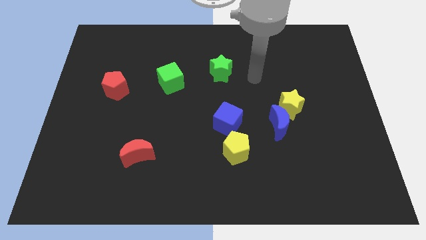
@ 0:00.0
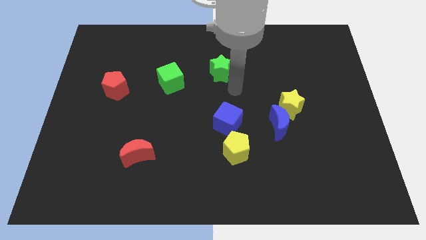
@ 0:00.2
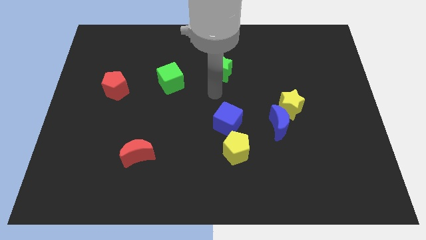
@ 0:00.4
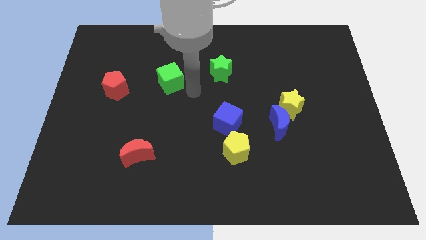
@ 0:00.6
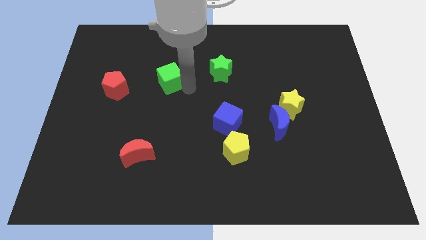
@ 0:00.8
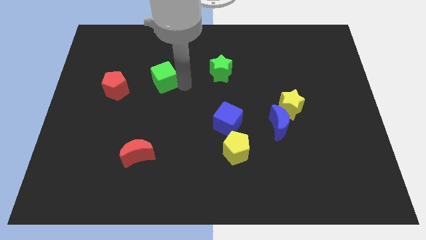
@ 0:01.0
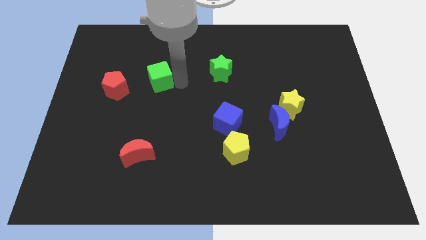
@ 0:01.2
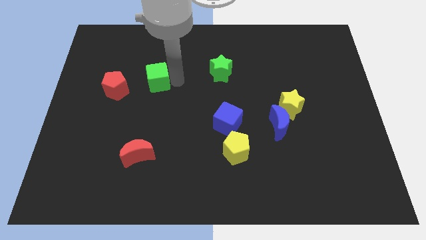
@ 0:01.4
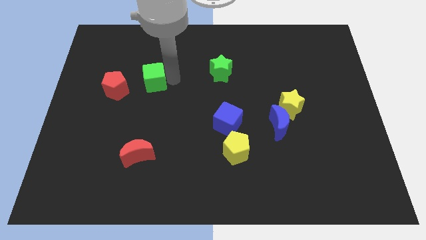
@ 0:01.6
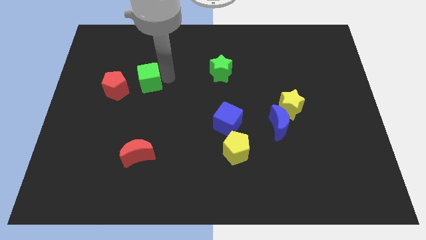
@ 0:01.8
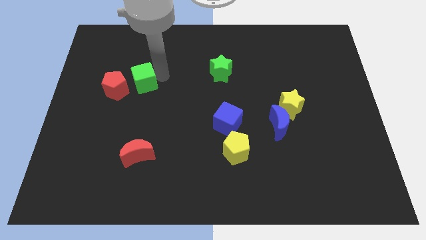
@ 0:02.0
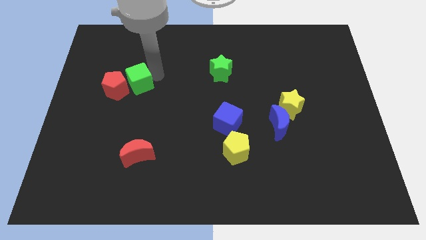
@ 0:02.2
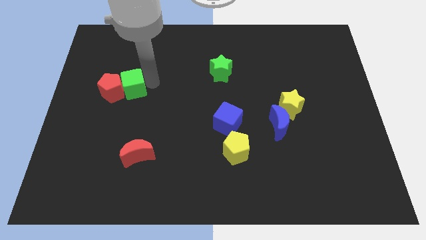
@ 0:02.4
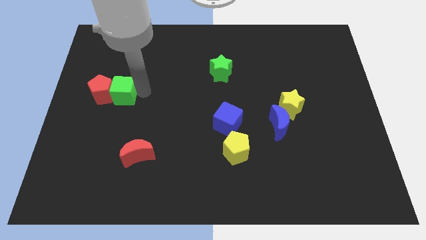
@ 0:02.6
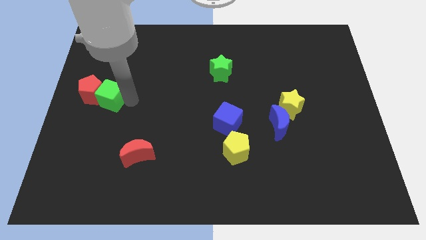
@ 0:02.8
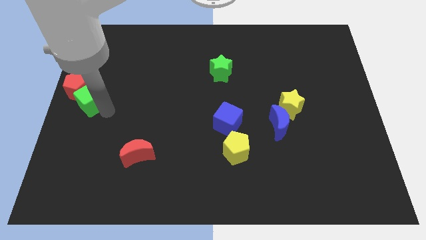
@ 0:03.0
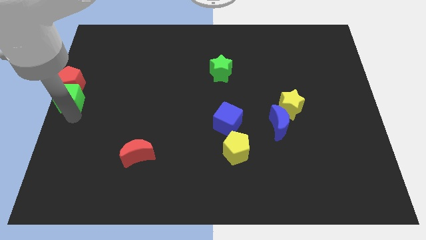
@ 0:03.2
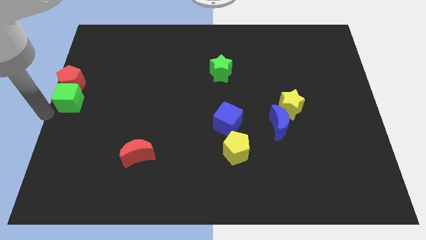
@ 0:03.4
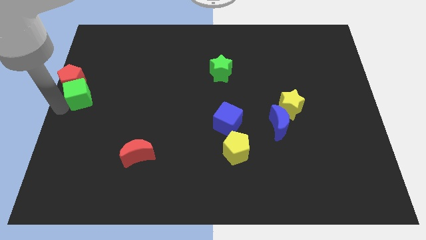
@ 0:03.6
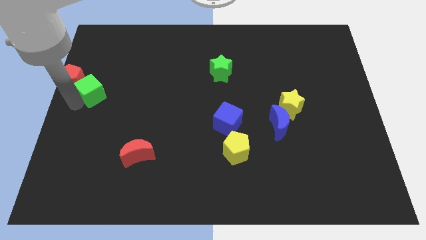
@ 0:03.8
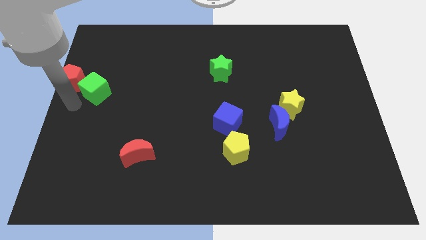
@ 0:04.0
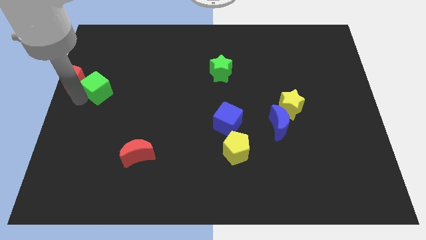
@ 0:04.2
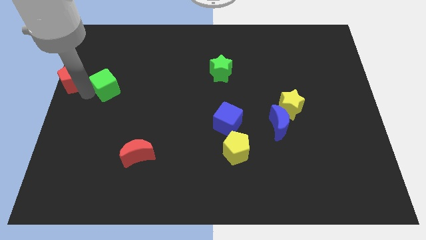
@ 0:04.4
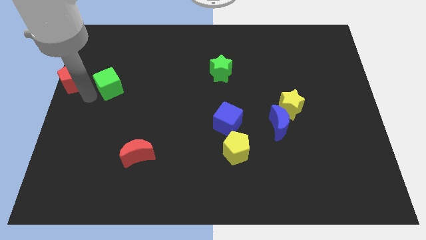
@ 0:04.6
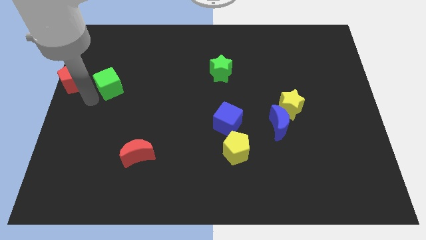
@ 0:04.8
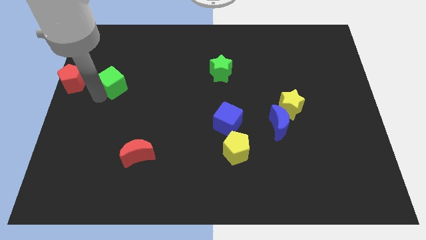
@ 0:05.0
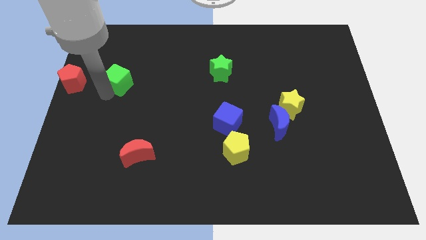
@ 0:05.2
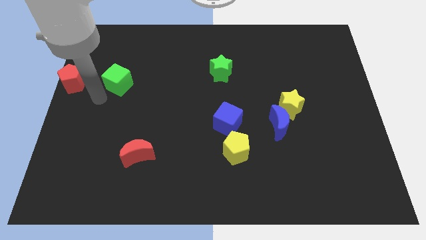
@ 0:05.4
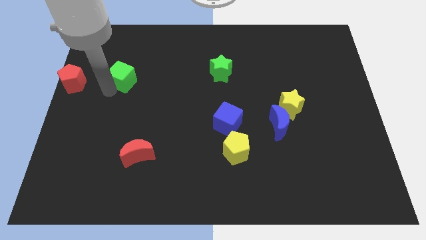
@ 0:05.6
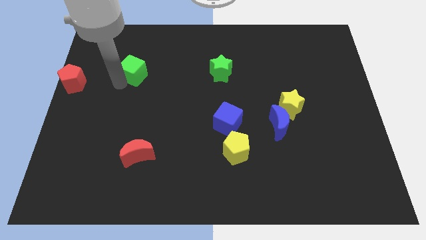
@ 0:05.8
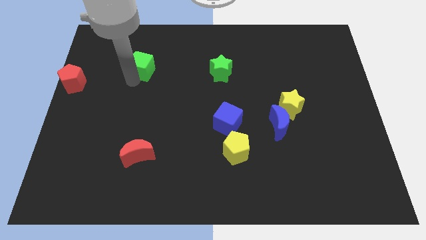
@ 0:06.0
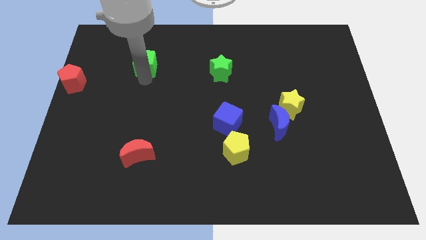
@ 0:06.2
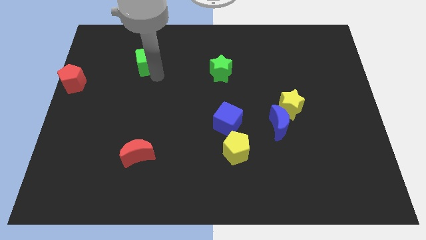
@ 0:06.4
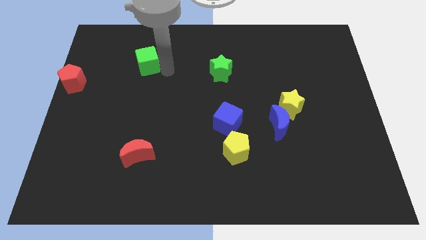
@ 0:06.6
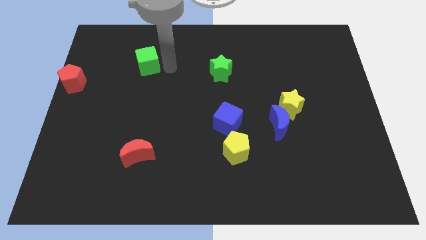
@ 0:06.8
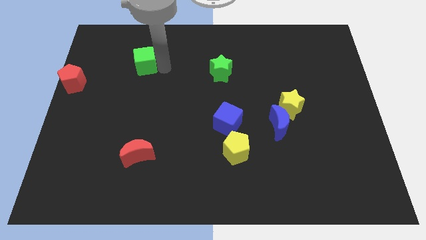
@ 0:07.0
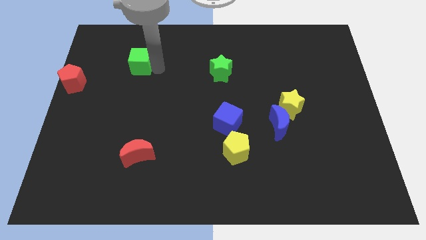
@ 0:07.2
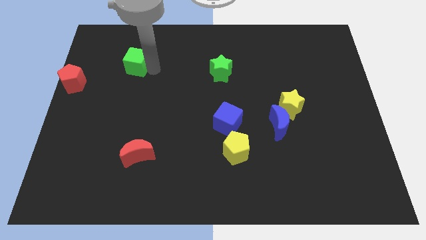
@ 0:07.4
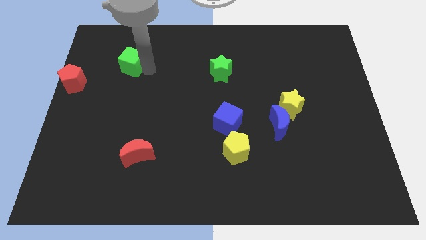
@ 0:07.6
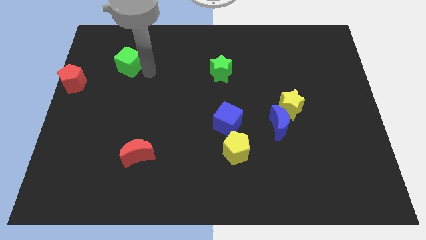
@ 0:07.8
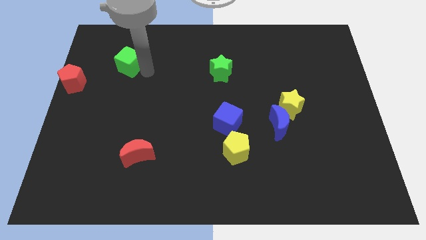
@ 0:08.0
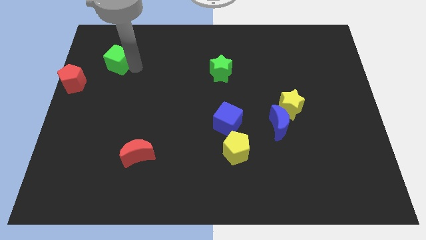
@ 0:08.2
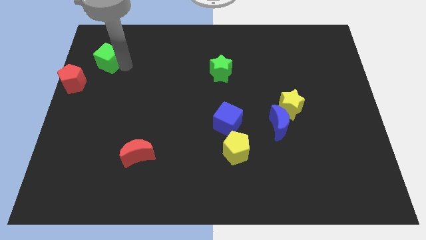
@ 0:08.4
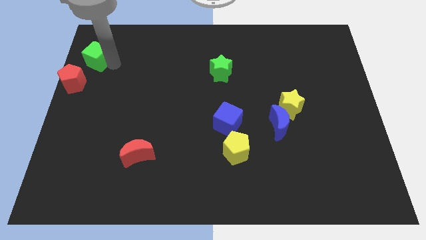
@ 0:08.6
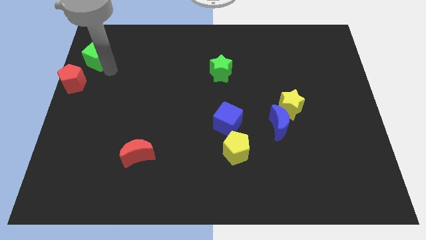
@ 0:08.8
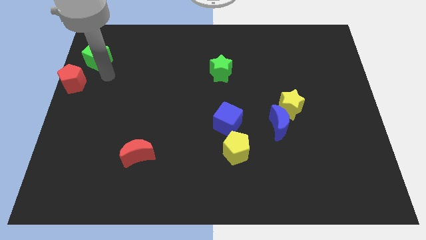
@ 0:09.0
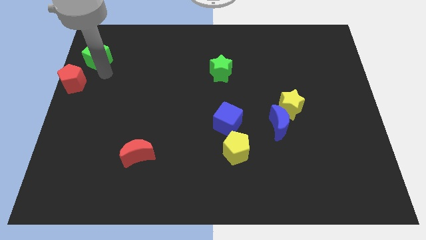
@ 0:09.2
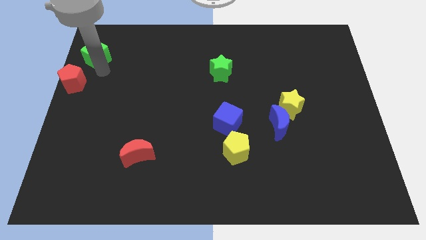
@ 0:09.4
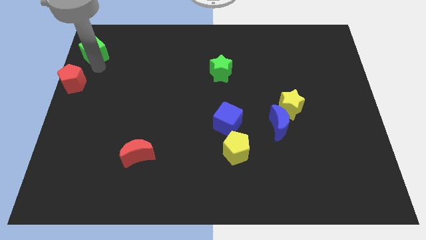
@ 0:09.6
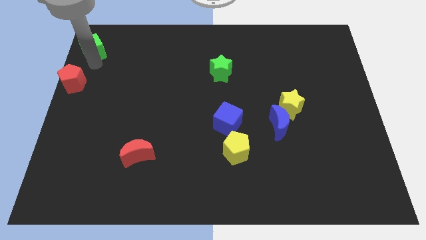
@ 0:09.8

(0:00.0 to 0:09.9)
push the green cube to the upper left corner

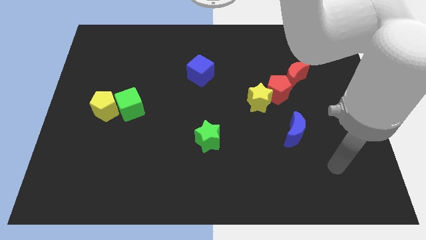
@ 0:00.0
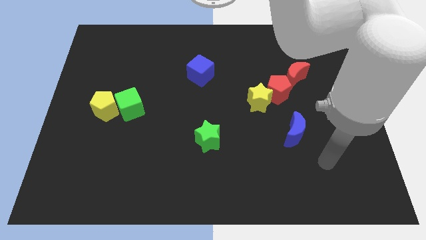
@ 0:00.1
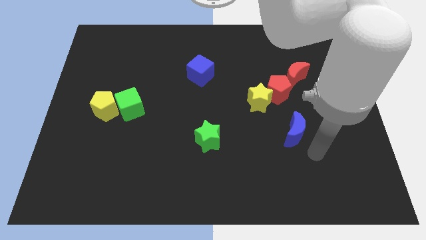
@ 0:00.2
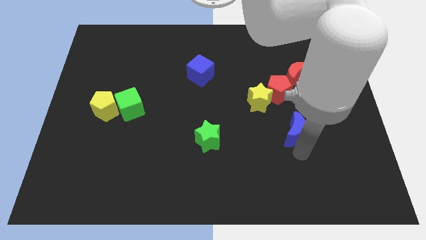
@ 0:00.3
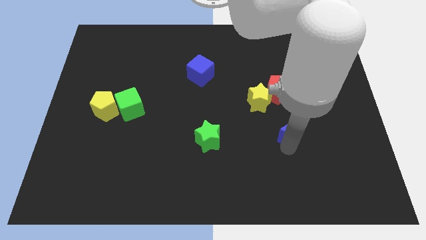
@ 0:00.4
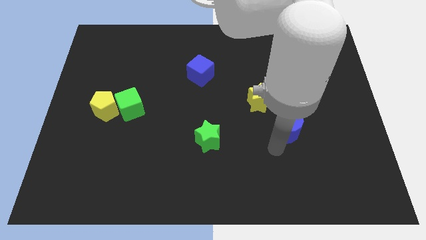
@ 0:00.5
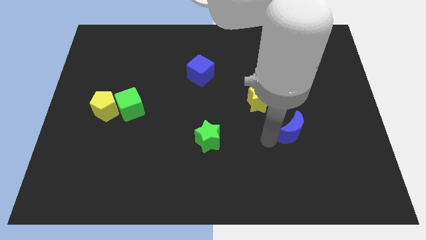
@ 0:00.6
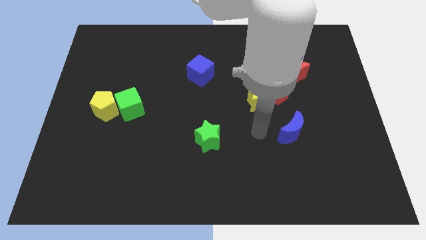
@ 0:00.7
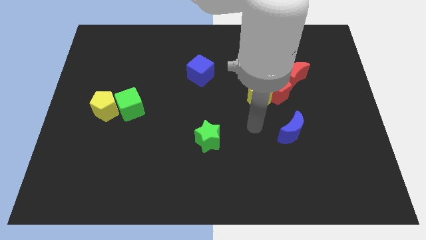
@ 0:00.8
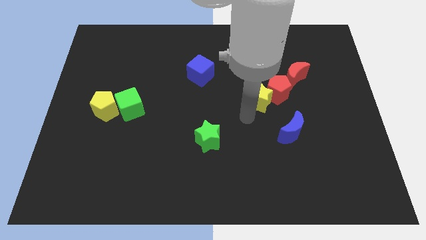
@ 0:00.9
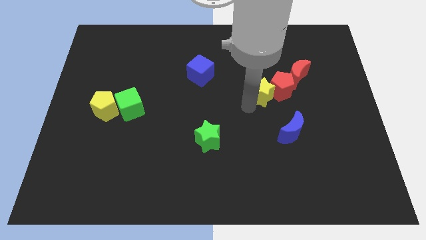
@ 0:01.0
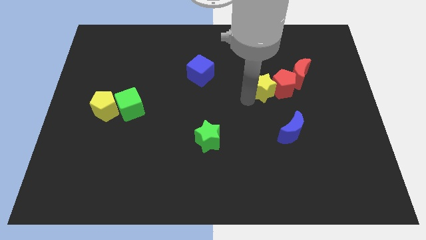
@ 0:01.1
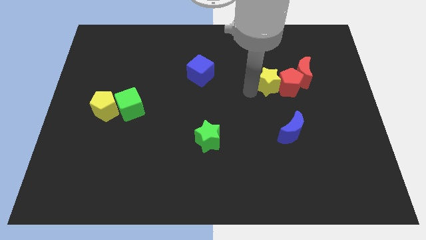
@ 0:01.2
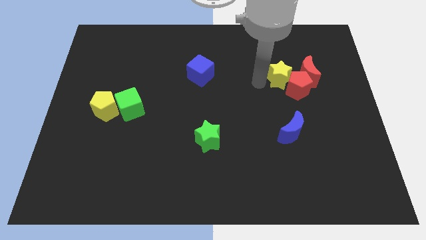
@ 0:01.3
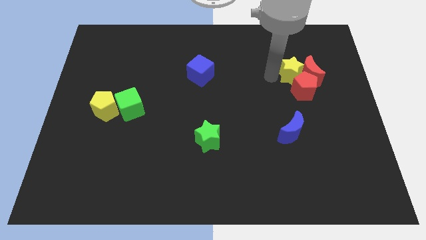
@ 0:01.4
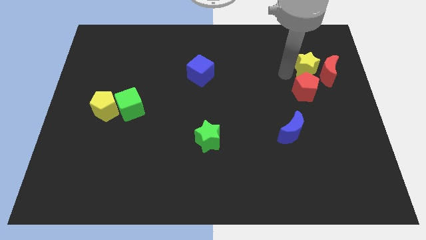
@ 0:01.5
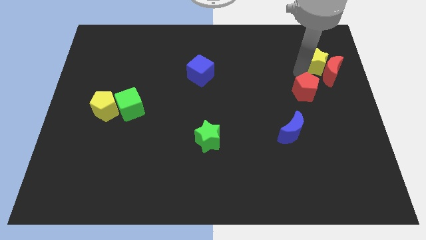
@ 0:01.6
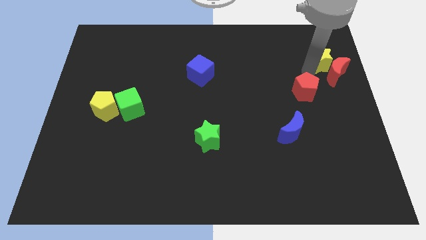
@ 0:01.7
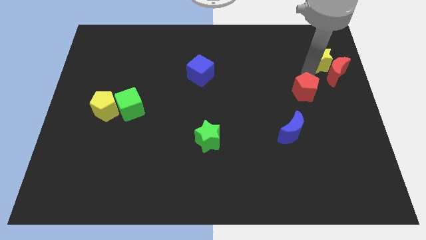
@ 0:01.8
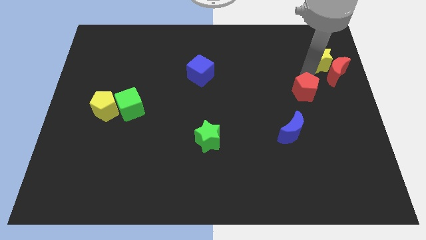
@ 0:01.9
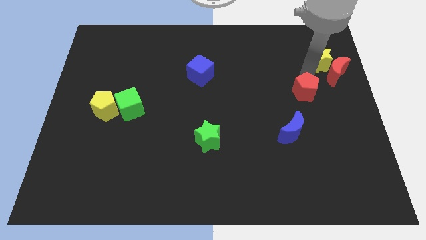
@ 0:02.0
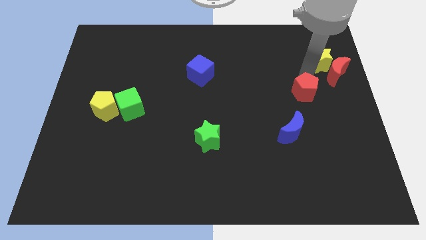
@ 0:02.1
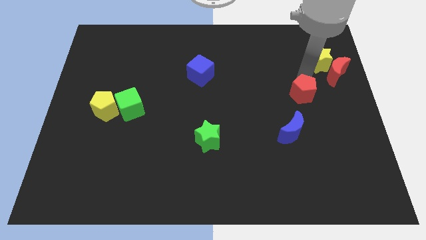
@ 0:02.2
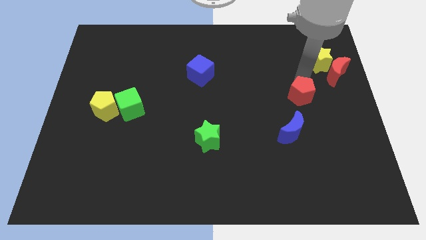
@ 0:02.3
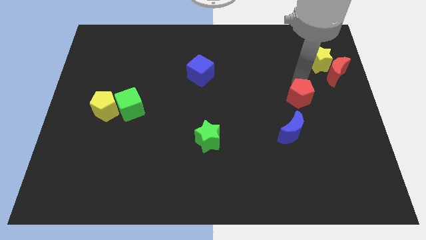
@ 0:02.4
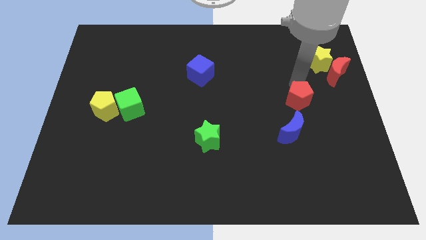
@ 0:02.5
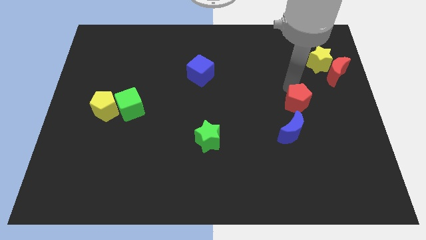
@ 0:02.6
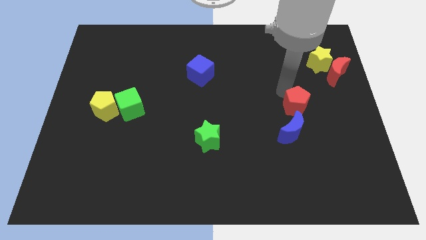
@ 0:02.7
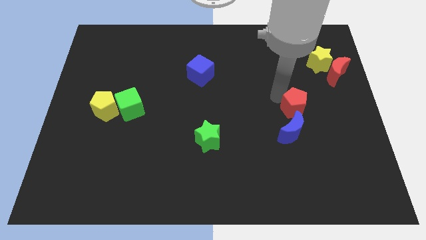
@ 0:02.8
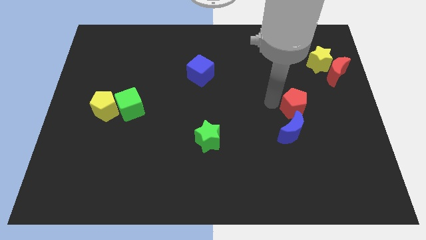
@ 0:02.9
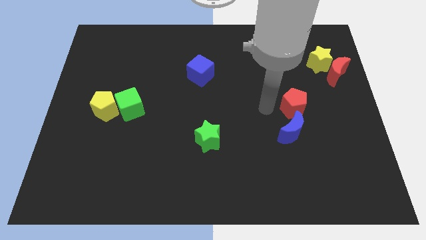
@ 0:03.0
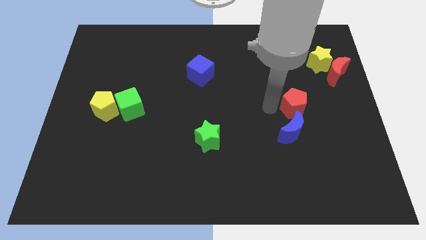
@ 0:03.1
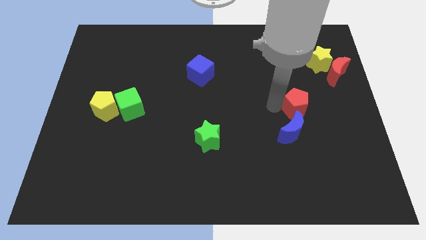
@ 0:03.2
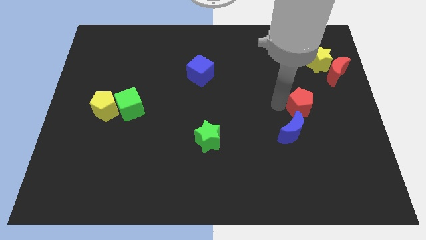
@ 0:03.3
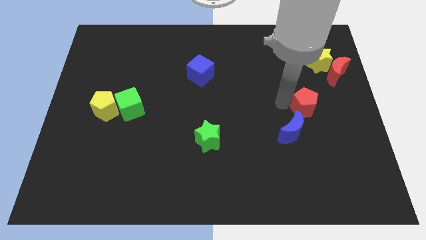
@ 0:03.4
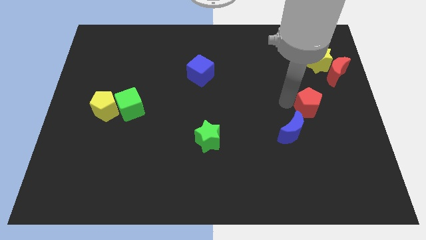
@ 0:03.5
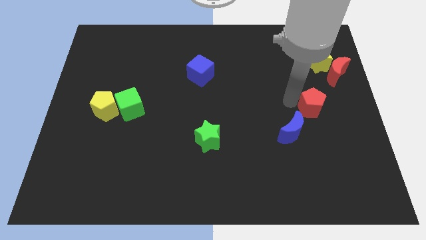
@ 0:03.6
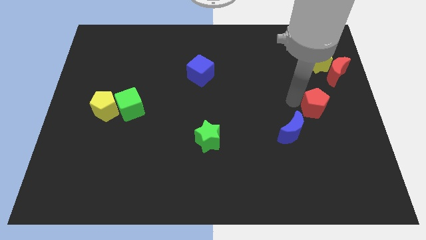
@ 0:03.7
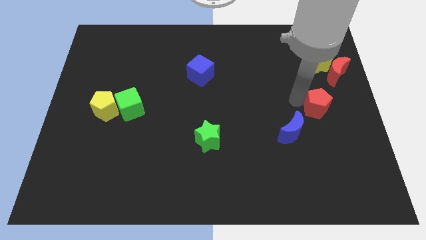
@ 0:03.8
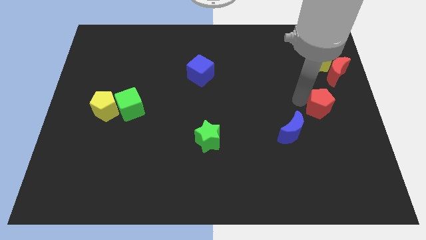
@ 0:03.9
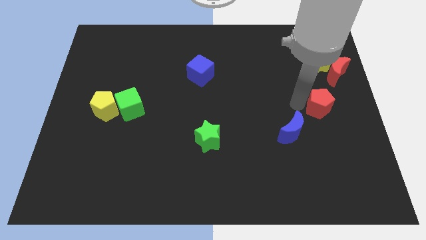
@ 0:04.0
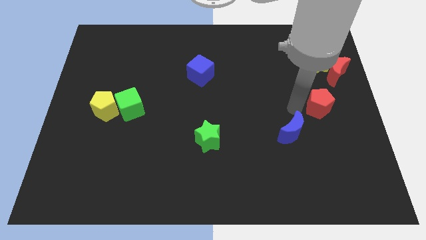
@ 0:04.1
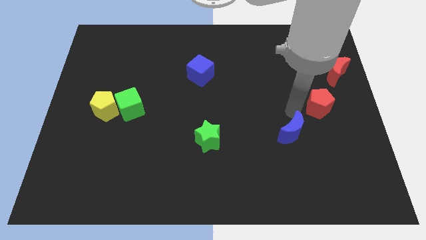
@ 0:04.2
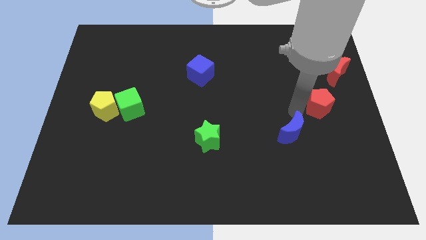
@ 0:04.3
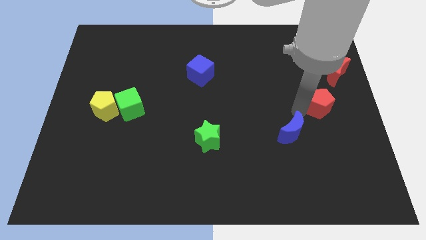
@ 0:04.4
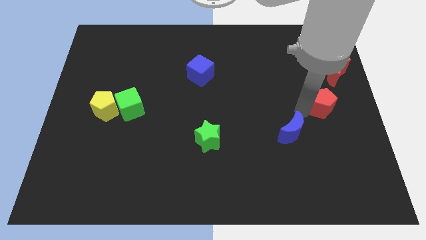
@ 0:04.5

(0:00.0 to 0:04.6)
put the red pentagon to the right side of the board
